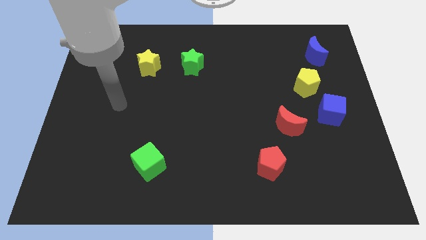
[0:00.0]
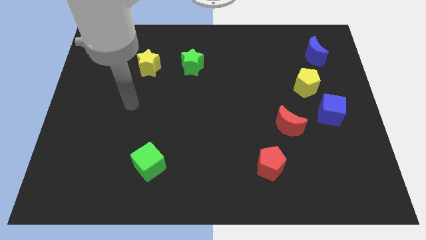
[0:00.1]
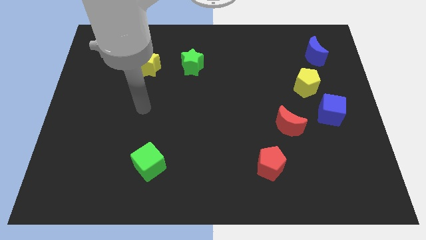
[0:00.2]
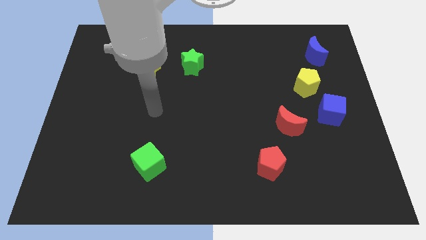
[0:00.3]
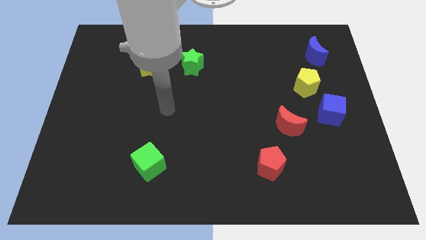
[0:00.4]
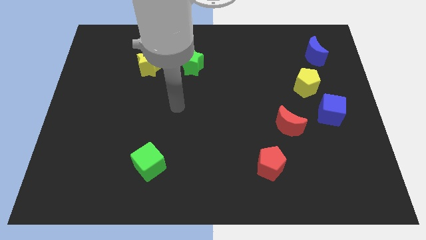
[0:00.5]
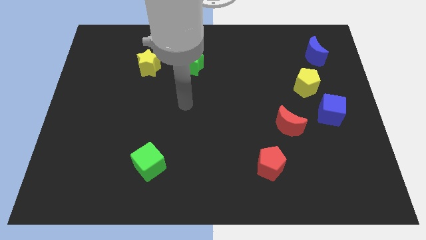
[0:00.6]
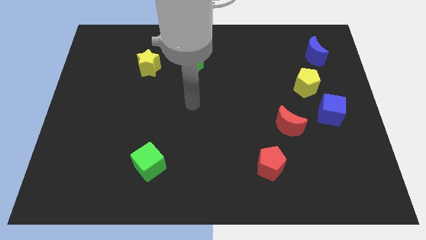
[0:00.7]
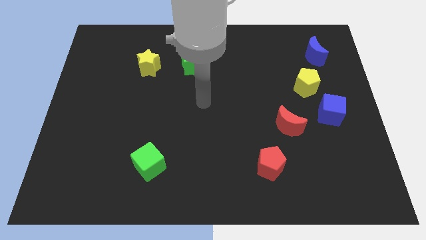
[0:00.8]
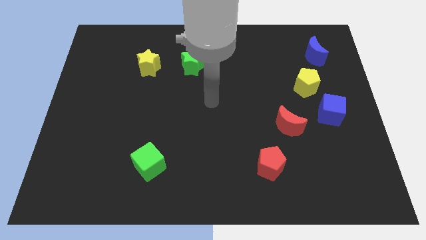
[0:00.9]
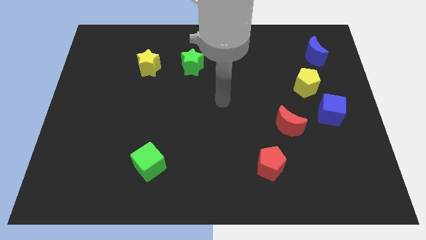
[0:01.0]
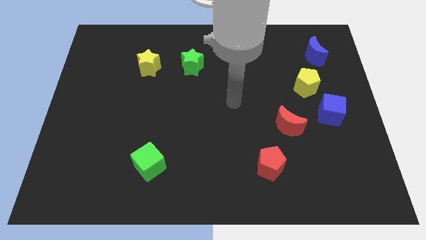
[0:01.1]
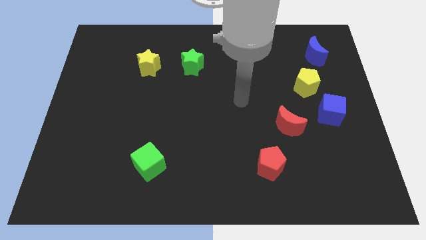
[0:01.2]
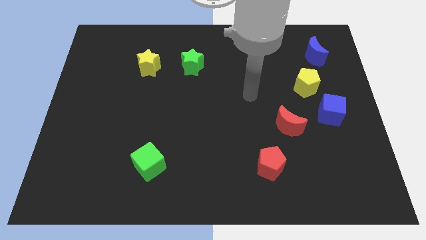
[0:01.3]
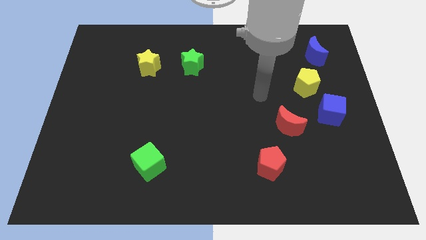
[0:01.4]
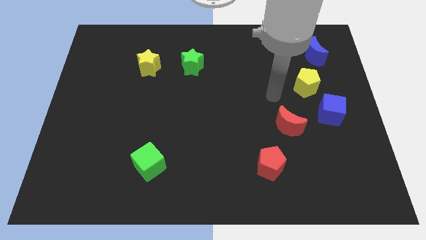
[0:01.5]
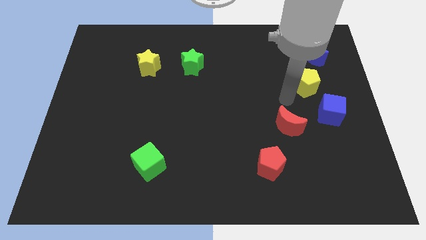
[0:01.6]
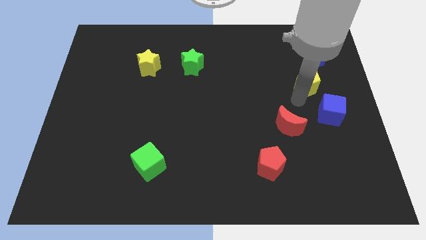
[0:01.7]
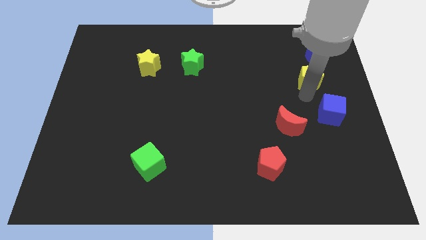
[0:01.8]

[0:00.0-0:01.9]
move the blue cube away from the yellow pentagon

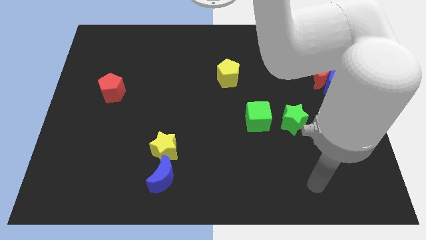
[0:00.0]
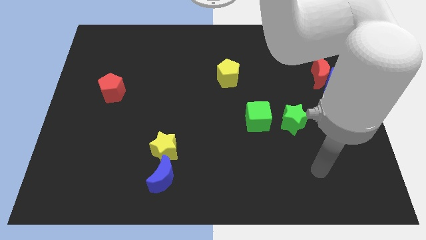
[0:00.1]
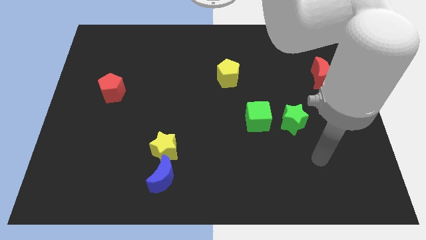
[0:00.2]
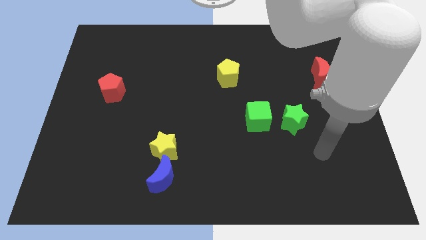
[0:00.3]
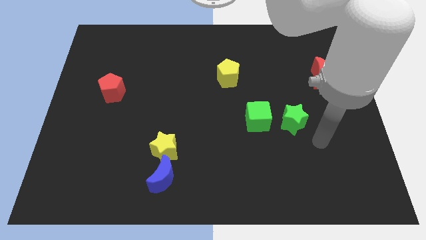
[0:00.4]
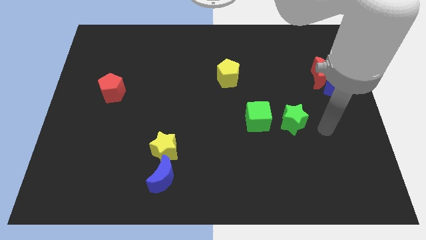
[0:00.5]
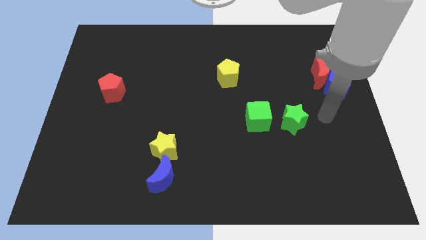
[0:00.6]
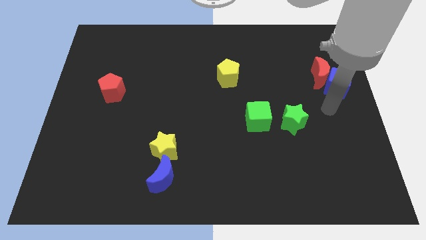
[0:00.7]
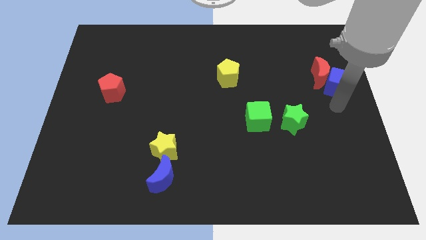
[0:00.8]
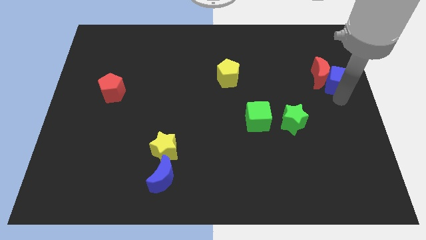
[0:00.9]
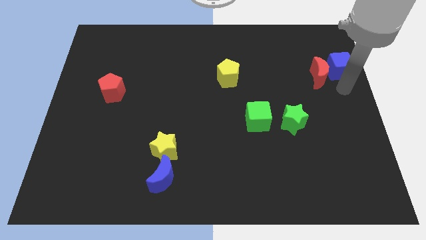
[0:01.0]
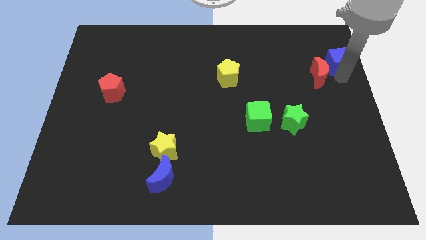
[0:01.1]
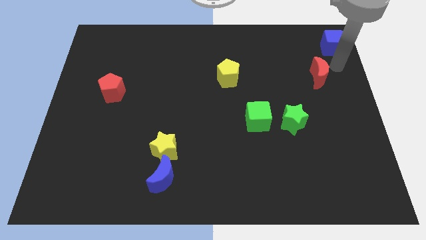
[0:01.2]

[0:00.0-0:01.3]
move the red moon away from the blue cube

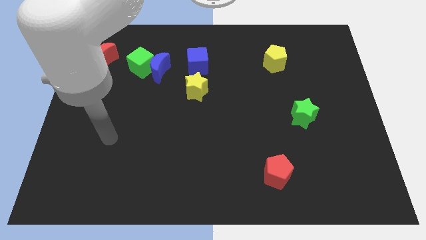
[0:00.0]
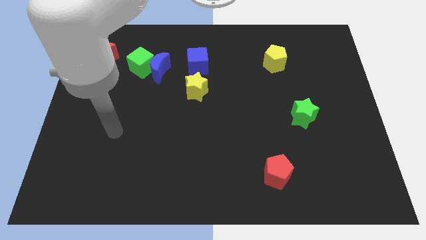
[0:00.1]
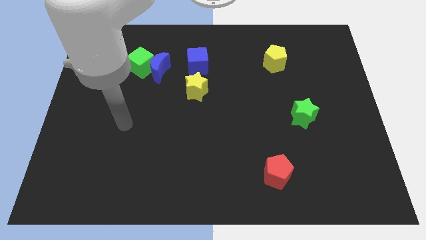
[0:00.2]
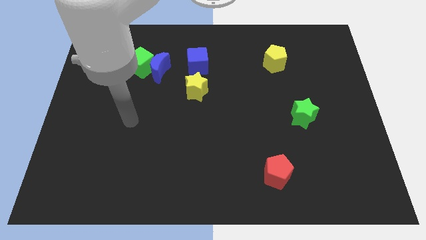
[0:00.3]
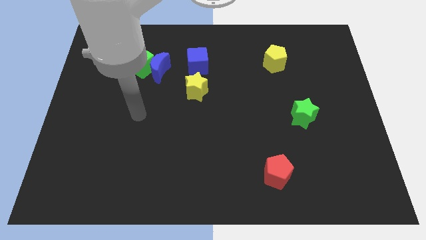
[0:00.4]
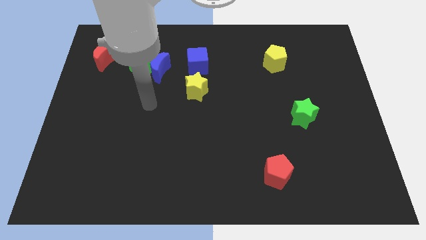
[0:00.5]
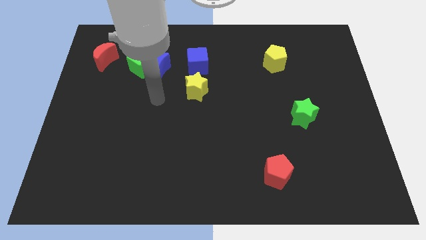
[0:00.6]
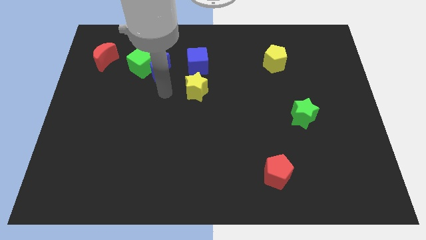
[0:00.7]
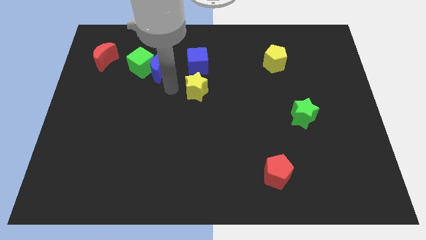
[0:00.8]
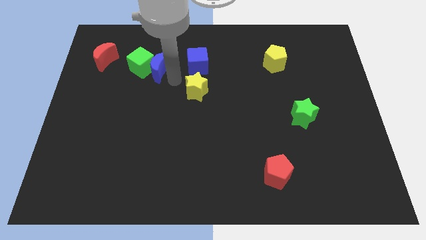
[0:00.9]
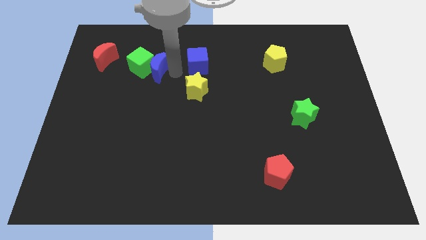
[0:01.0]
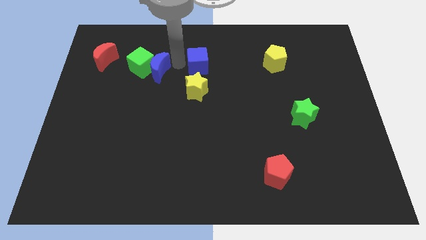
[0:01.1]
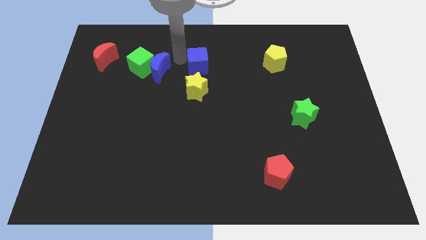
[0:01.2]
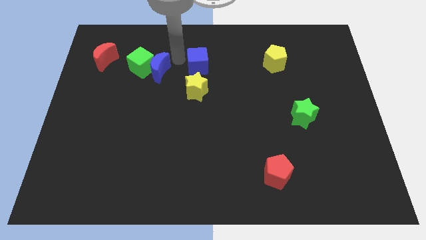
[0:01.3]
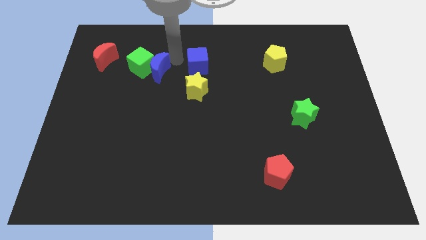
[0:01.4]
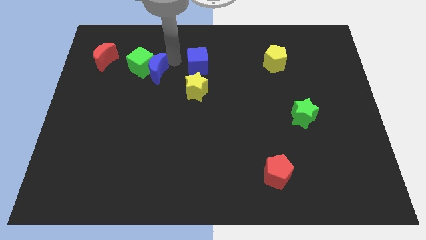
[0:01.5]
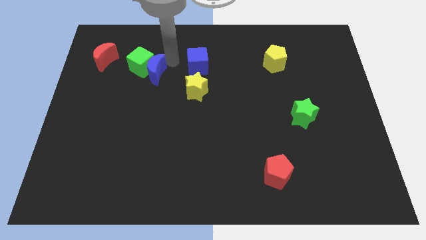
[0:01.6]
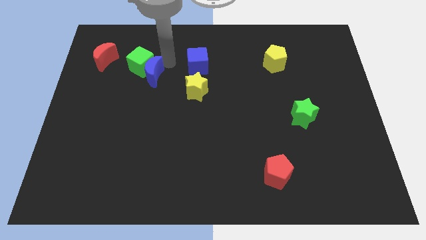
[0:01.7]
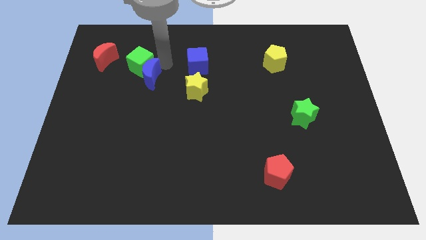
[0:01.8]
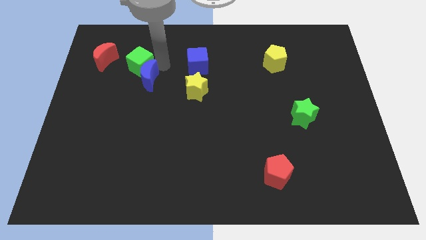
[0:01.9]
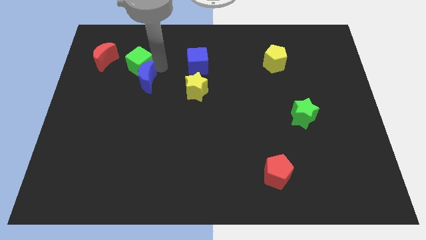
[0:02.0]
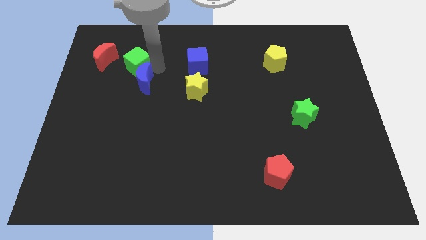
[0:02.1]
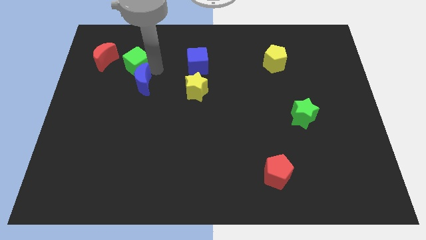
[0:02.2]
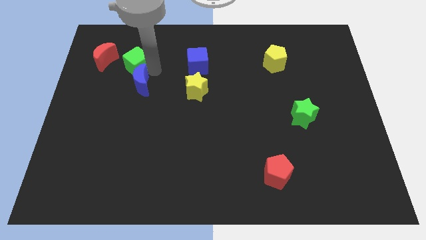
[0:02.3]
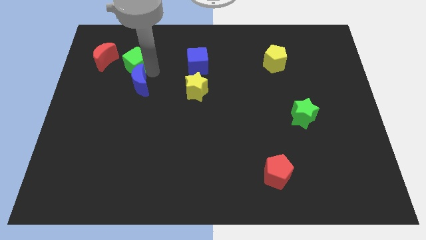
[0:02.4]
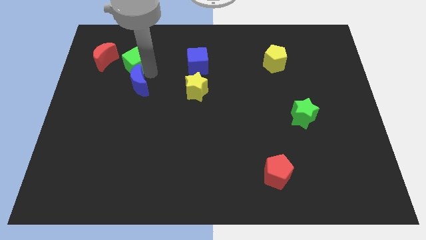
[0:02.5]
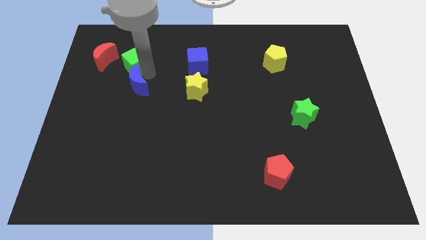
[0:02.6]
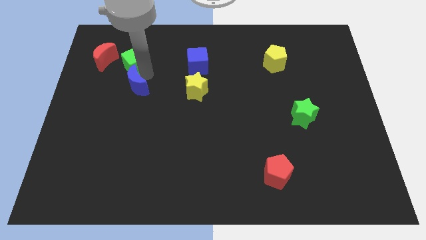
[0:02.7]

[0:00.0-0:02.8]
separate the blue moon from the green cube and blue cube

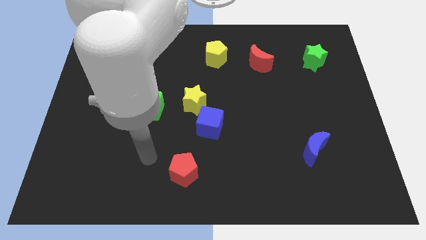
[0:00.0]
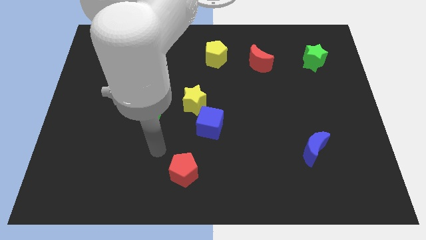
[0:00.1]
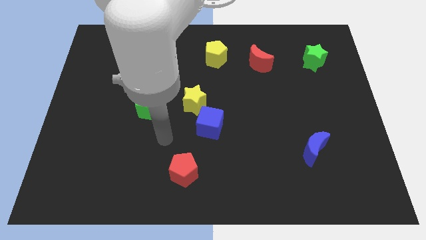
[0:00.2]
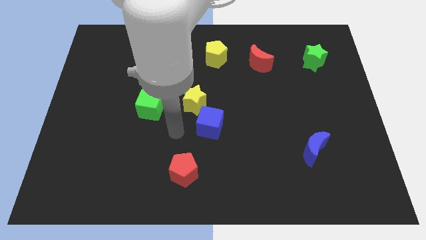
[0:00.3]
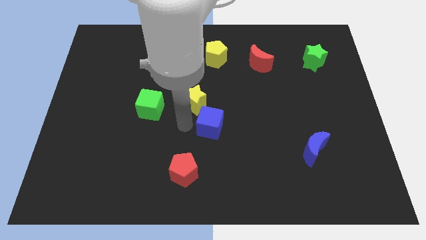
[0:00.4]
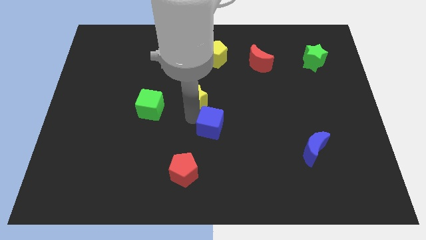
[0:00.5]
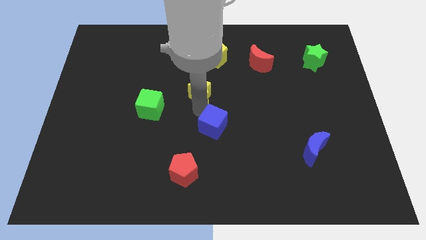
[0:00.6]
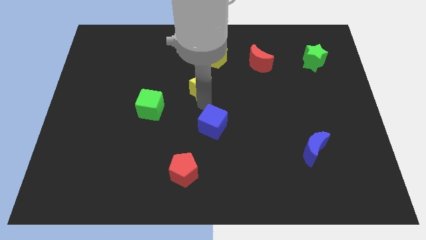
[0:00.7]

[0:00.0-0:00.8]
move the blue cube away from the yellow star

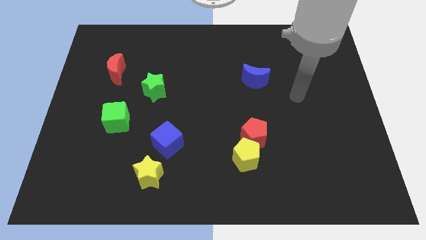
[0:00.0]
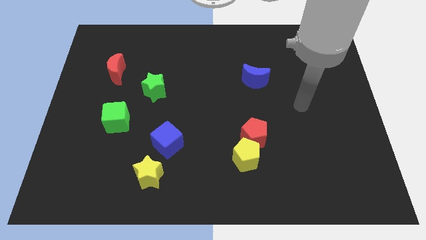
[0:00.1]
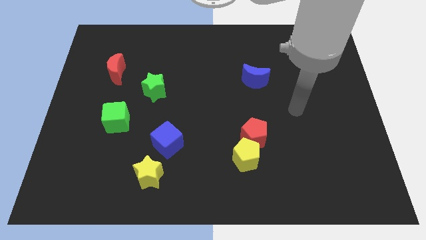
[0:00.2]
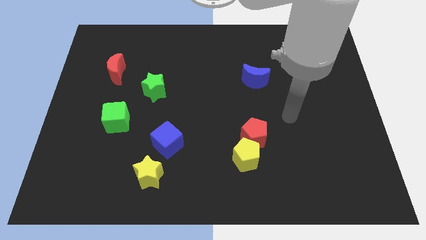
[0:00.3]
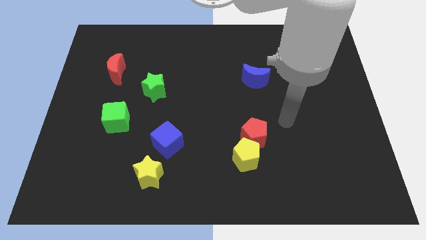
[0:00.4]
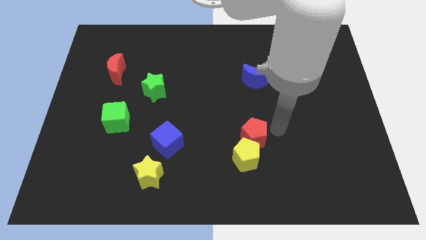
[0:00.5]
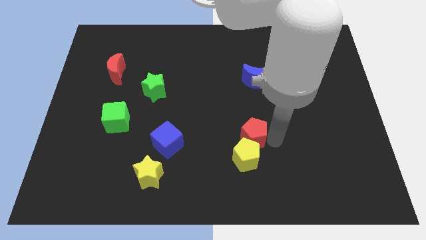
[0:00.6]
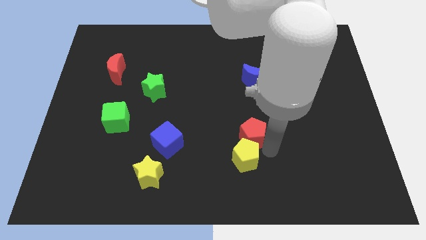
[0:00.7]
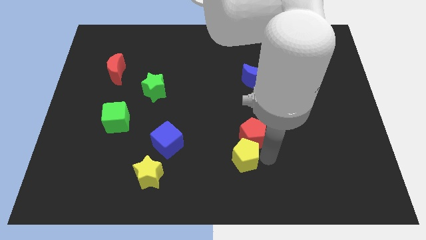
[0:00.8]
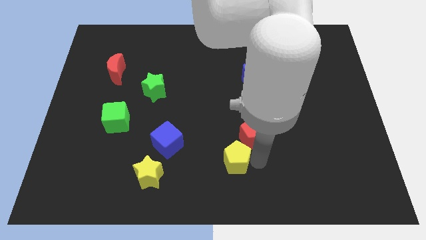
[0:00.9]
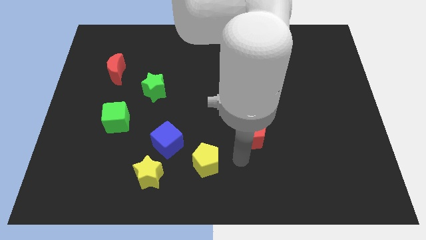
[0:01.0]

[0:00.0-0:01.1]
pull the red pentagon apart from the yellow pentagon

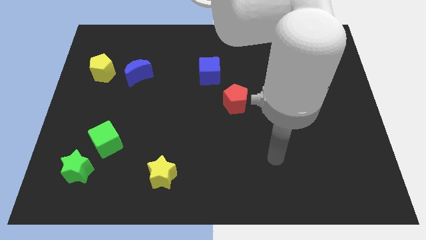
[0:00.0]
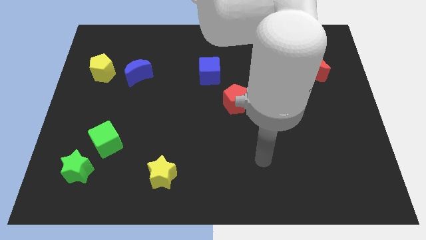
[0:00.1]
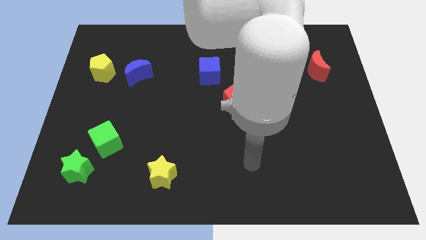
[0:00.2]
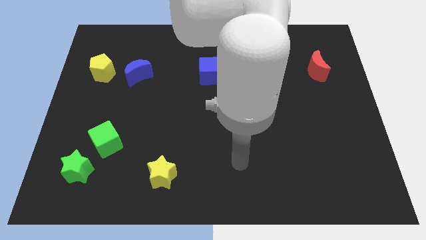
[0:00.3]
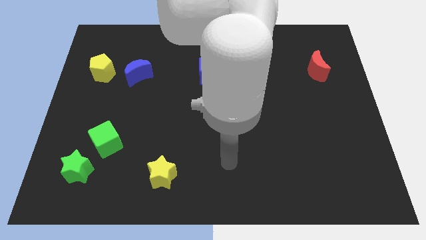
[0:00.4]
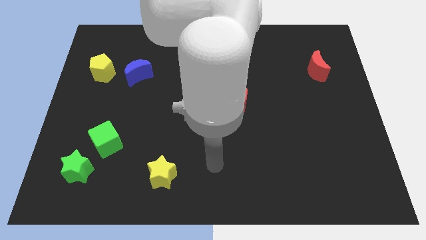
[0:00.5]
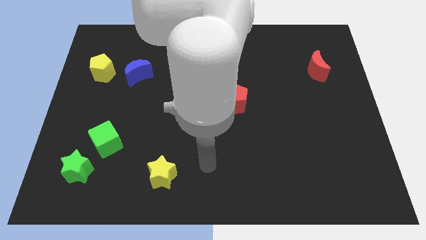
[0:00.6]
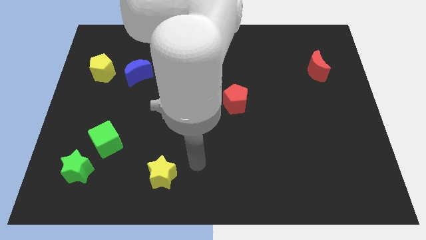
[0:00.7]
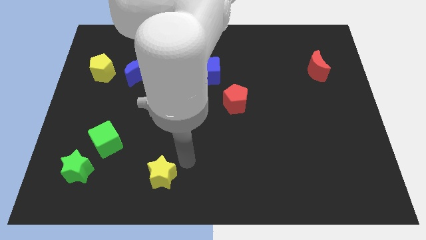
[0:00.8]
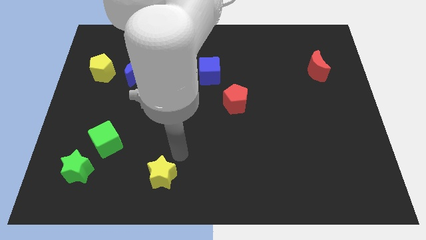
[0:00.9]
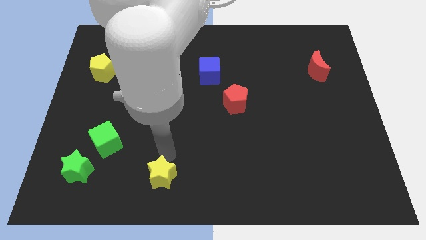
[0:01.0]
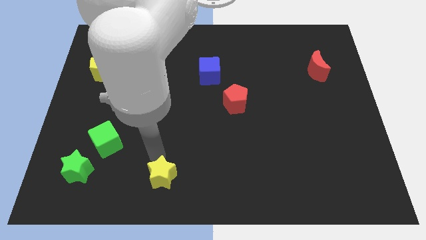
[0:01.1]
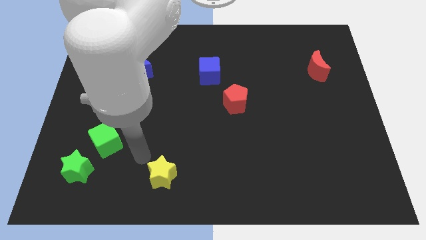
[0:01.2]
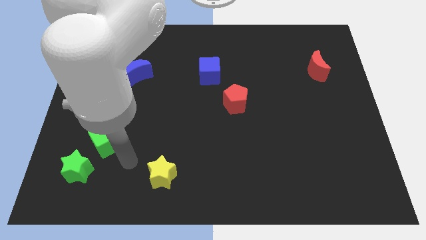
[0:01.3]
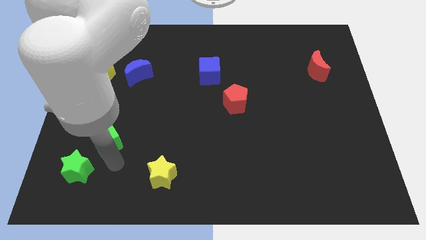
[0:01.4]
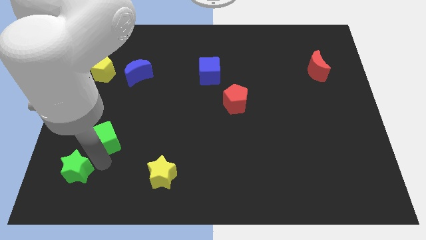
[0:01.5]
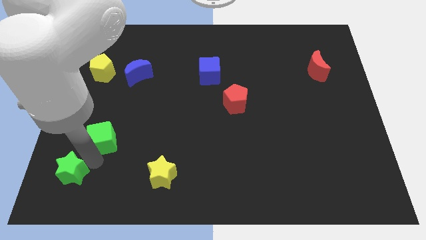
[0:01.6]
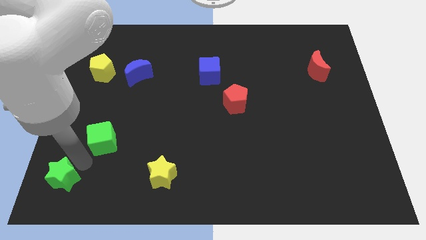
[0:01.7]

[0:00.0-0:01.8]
pull the green cube apart from the green star
